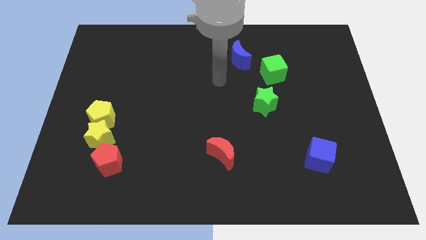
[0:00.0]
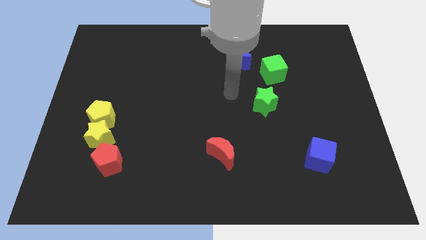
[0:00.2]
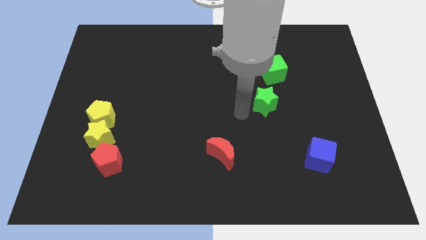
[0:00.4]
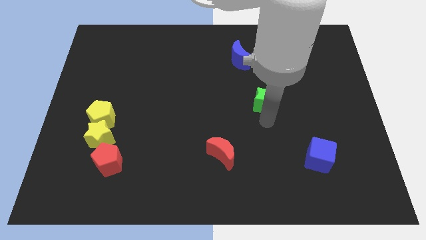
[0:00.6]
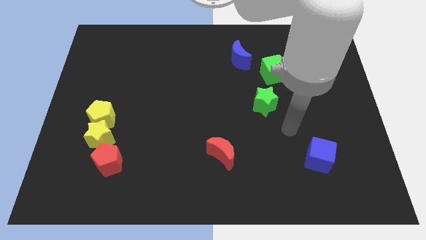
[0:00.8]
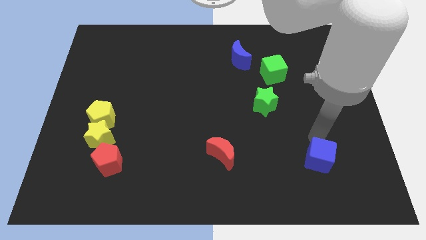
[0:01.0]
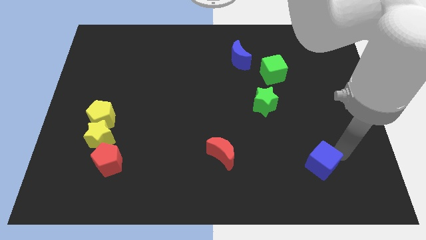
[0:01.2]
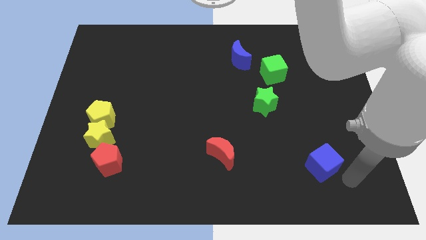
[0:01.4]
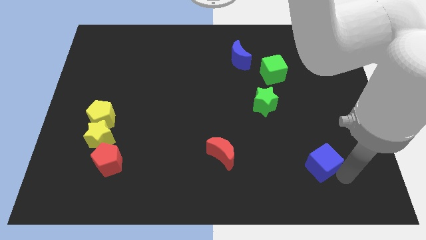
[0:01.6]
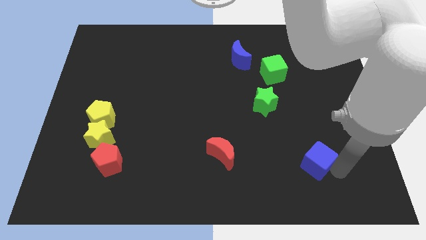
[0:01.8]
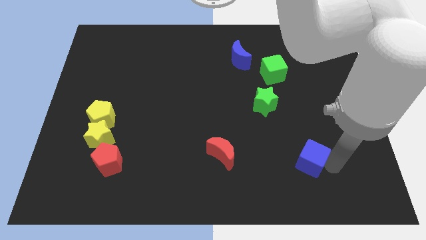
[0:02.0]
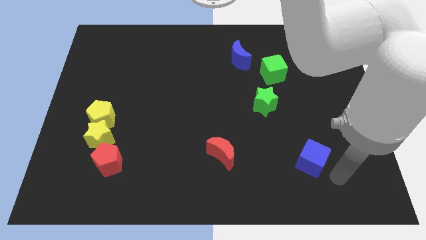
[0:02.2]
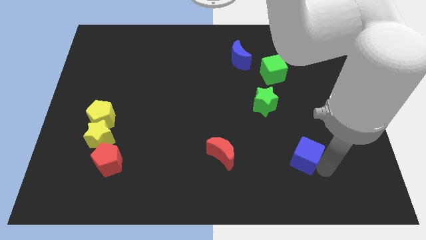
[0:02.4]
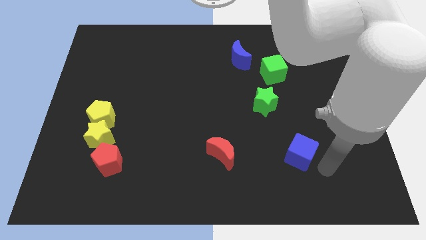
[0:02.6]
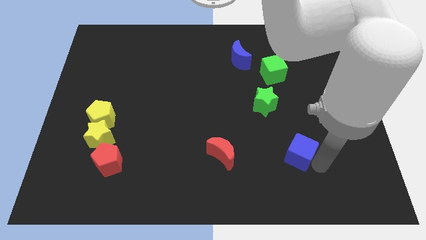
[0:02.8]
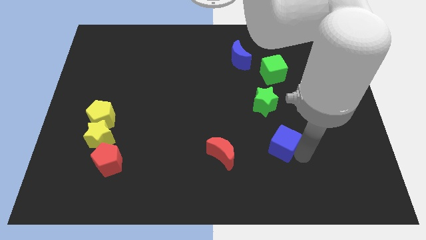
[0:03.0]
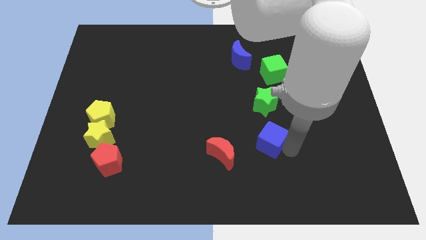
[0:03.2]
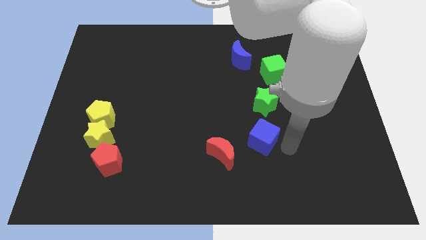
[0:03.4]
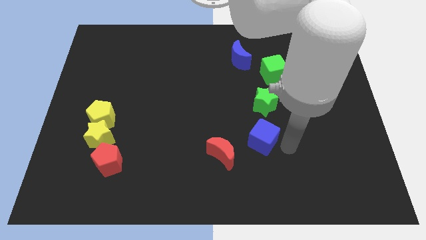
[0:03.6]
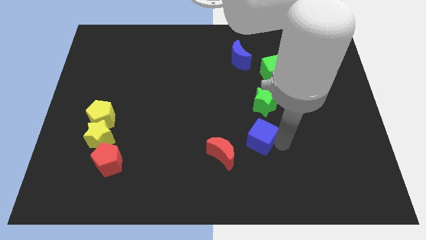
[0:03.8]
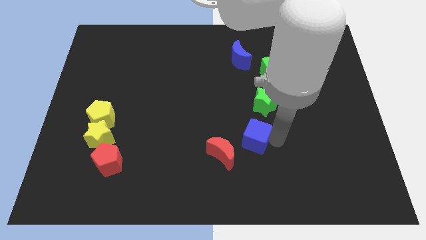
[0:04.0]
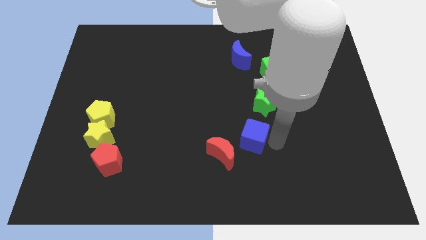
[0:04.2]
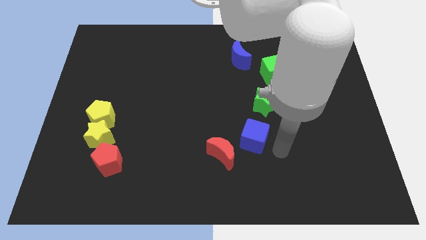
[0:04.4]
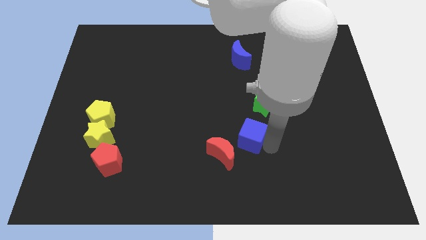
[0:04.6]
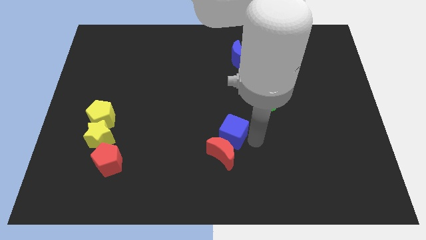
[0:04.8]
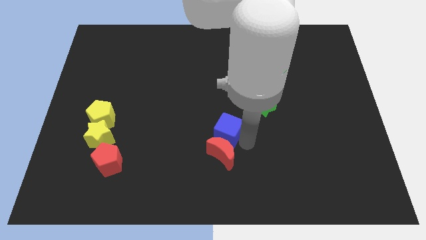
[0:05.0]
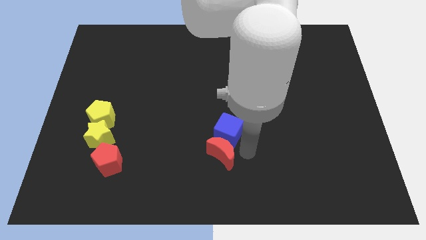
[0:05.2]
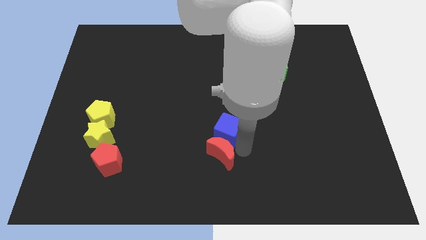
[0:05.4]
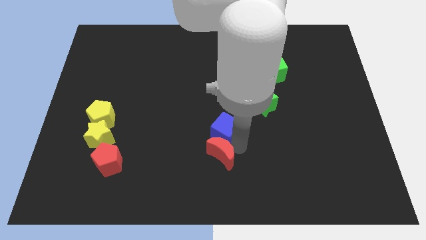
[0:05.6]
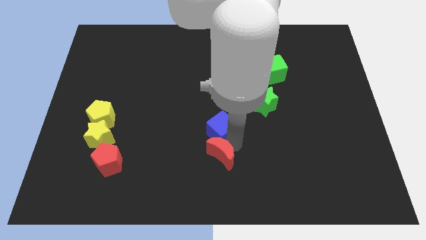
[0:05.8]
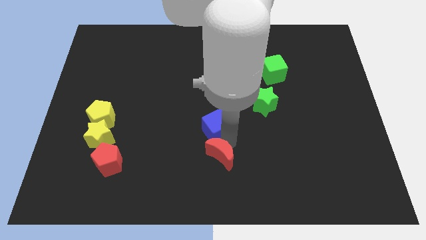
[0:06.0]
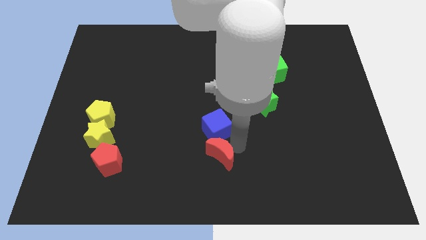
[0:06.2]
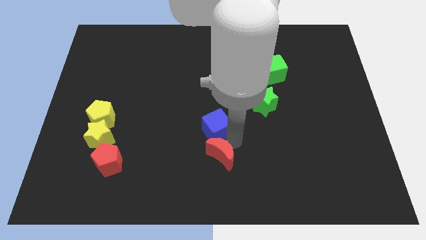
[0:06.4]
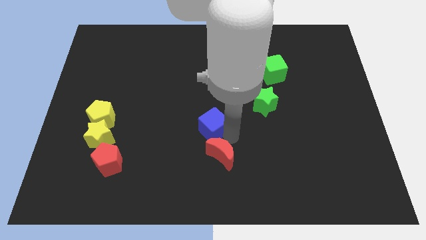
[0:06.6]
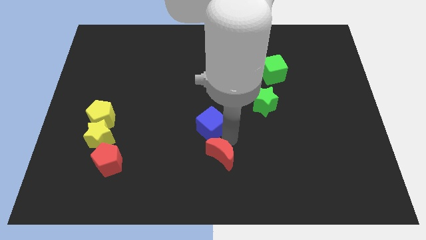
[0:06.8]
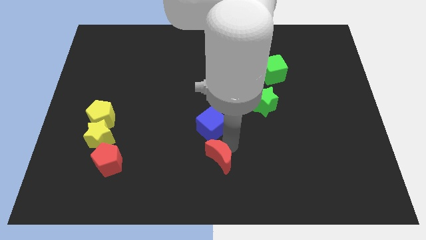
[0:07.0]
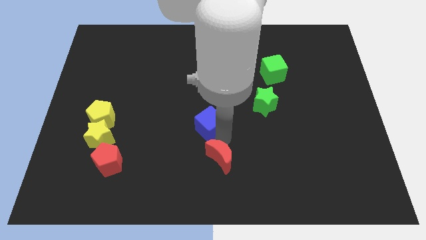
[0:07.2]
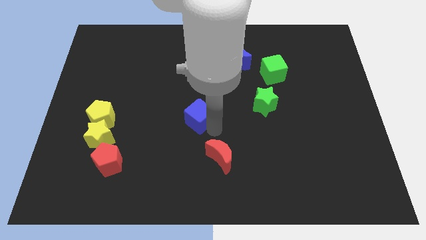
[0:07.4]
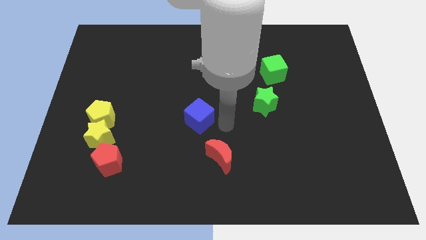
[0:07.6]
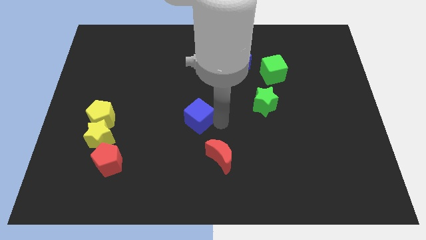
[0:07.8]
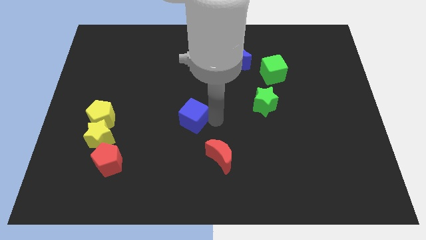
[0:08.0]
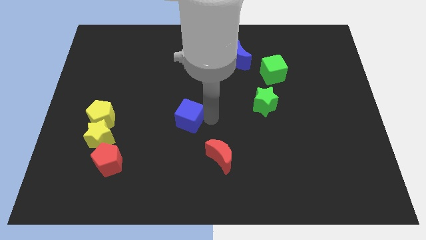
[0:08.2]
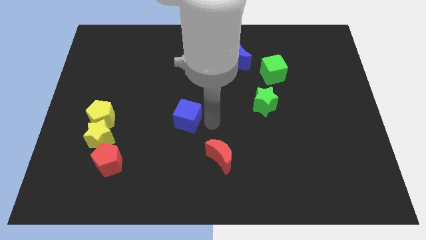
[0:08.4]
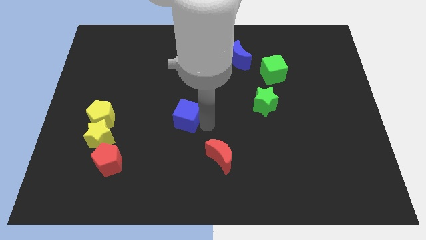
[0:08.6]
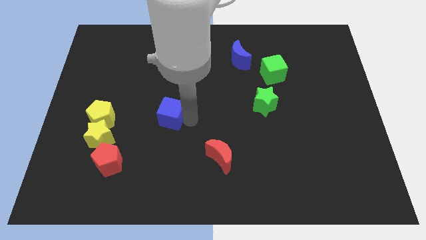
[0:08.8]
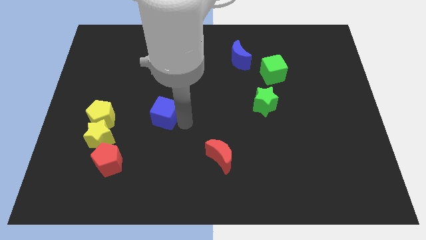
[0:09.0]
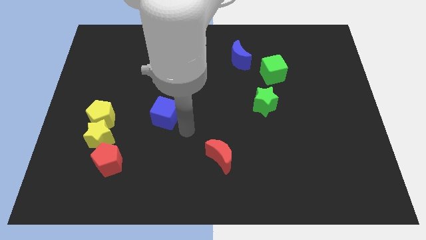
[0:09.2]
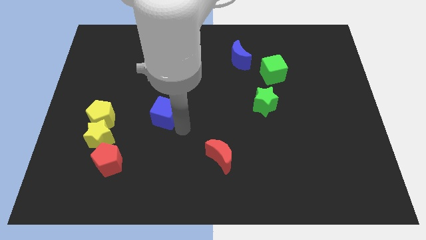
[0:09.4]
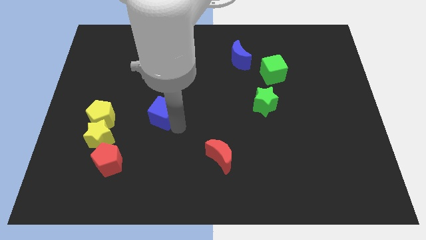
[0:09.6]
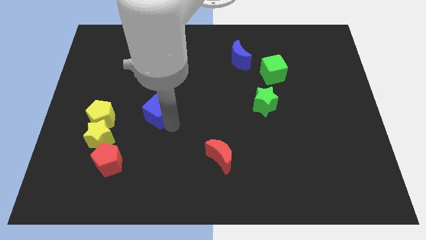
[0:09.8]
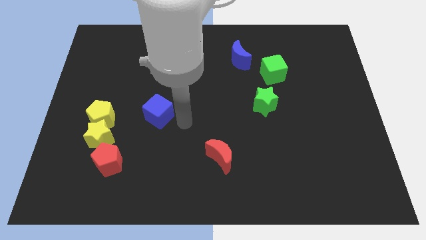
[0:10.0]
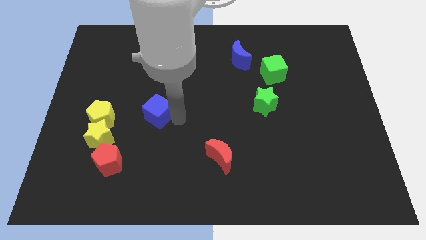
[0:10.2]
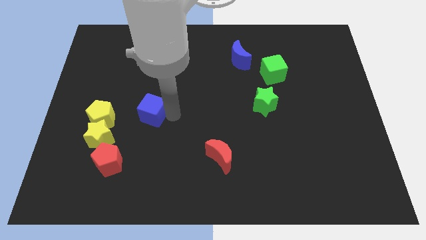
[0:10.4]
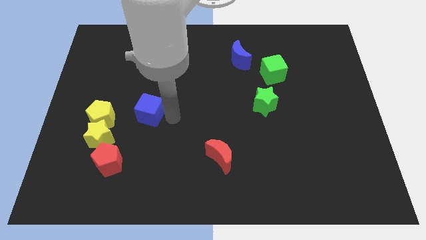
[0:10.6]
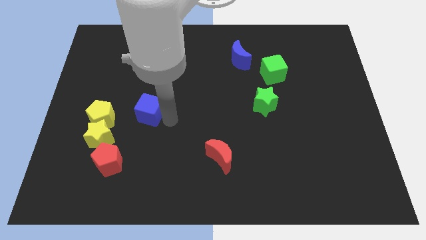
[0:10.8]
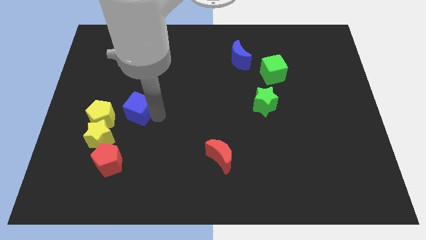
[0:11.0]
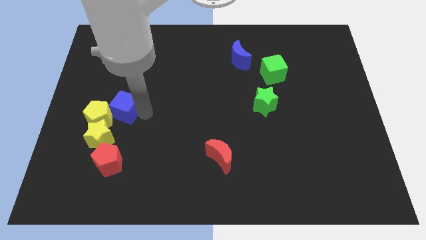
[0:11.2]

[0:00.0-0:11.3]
put the blue cube to the top side of the yellow star

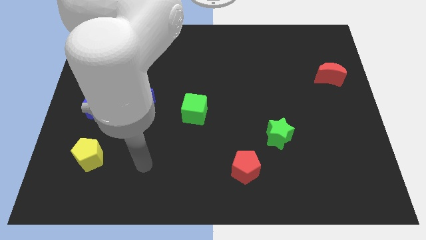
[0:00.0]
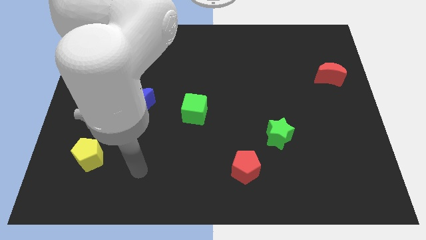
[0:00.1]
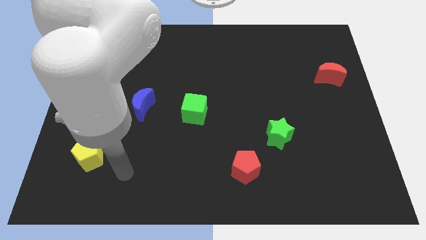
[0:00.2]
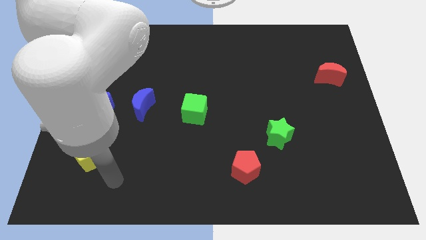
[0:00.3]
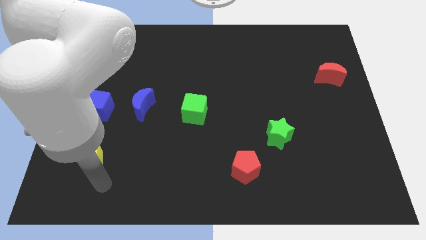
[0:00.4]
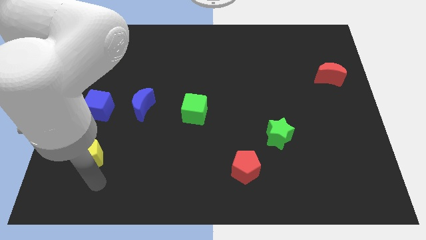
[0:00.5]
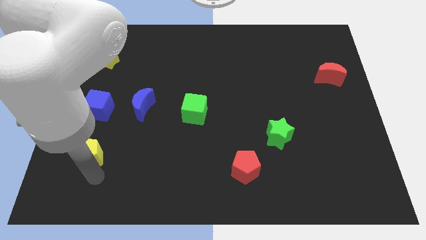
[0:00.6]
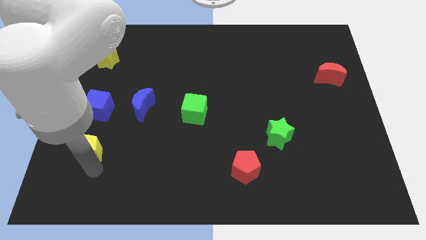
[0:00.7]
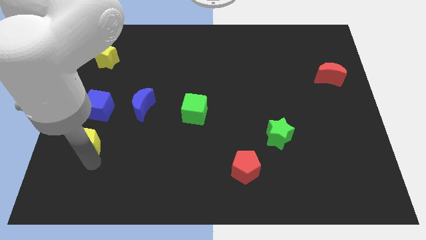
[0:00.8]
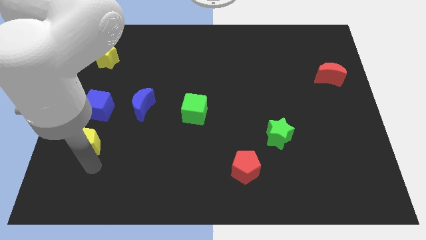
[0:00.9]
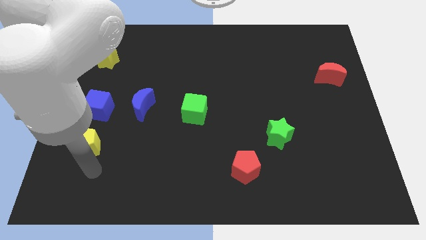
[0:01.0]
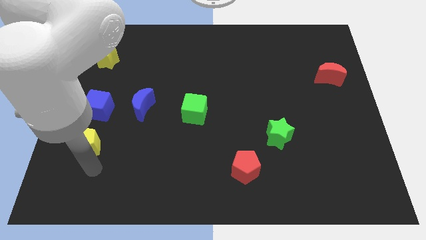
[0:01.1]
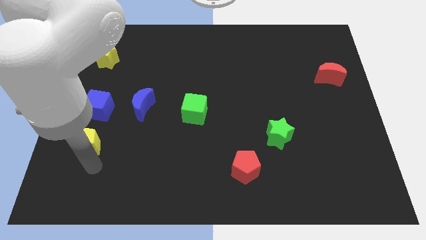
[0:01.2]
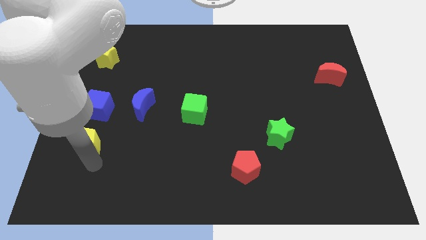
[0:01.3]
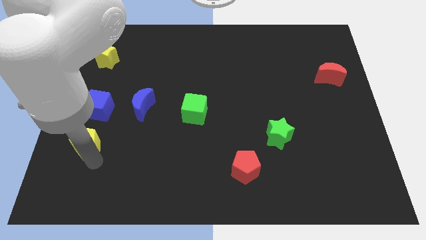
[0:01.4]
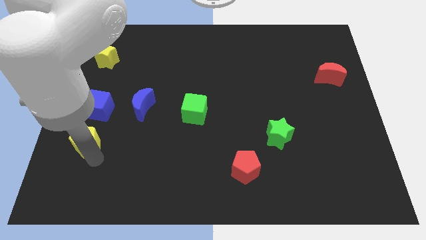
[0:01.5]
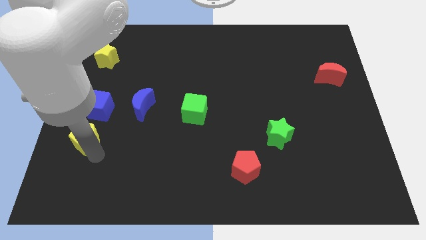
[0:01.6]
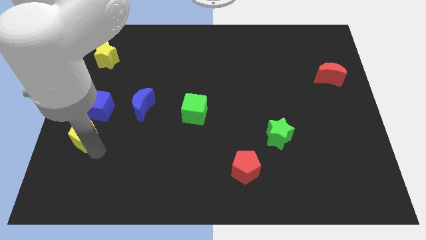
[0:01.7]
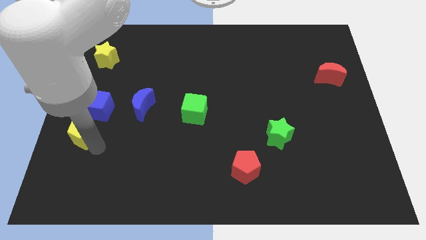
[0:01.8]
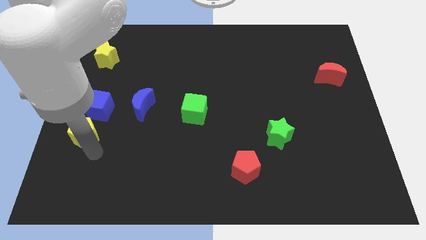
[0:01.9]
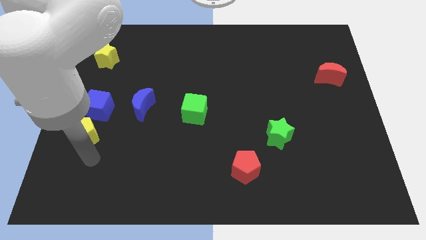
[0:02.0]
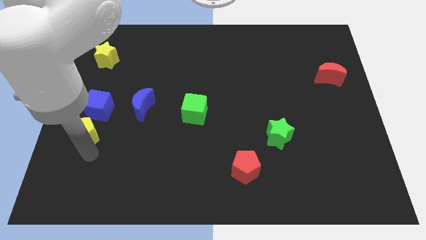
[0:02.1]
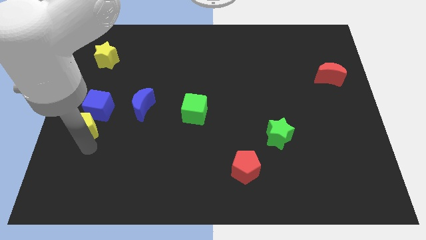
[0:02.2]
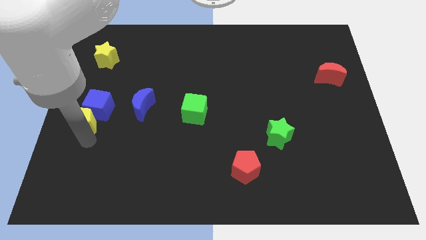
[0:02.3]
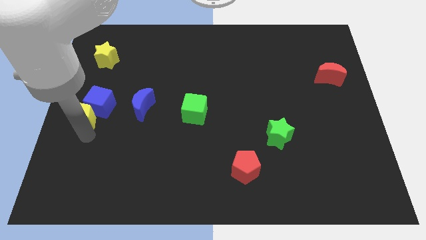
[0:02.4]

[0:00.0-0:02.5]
push the yellow pentagon to the left side of the blue moon
